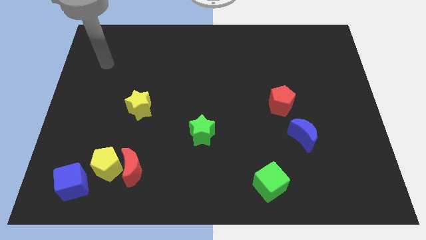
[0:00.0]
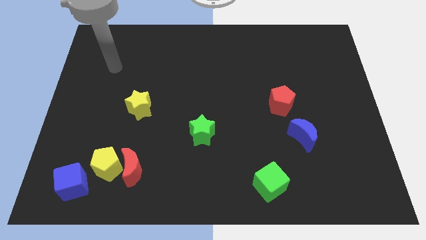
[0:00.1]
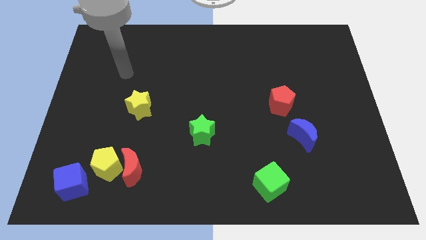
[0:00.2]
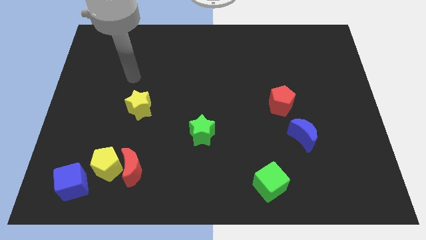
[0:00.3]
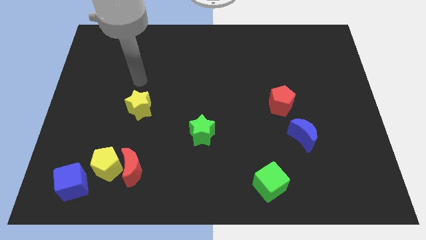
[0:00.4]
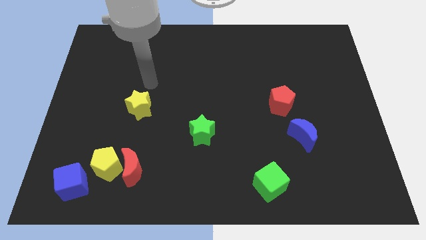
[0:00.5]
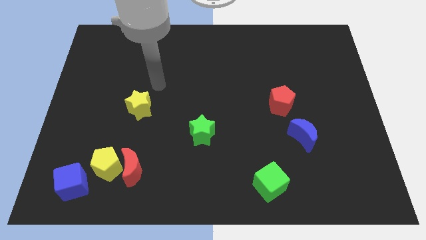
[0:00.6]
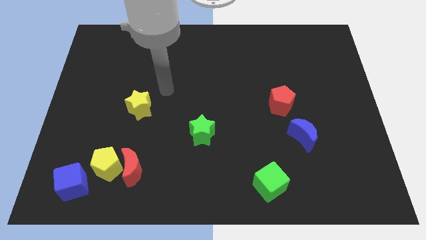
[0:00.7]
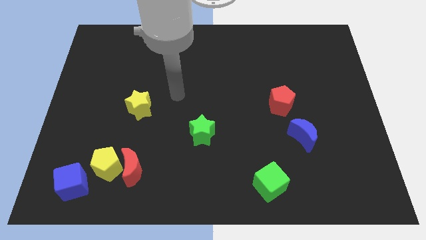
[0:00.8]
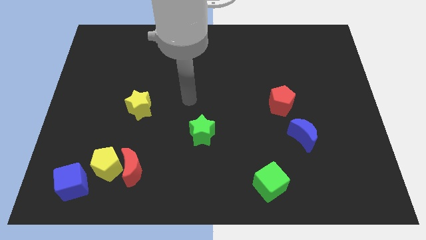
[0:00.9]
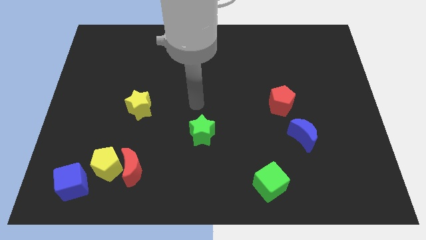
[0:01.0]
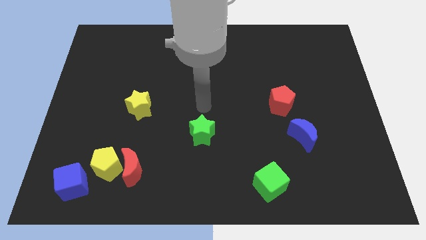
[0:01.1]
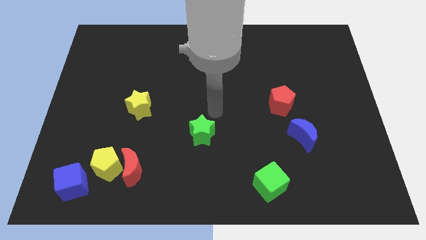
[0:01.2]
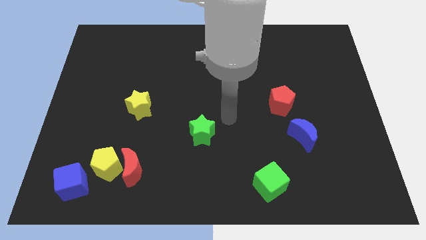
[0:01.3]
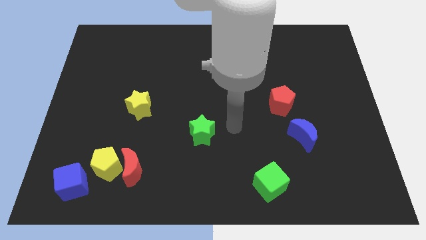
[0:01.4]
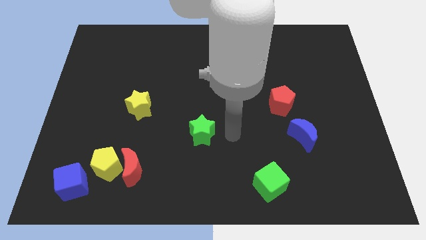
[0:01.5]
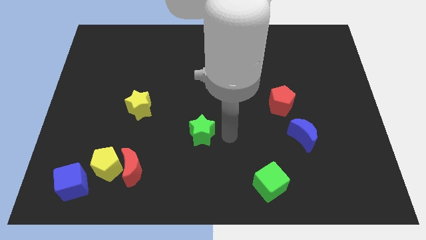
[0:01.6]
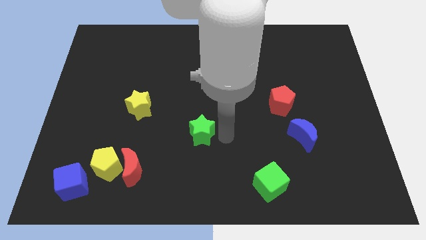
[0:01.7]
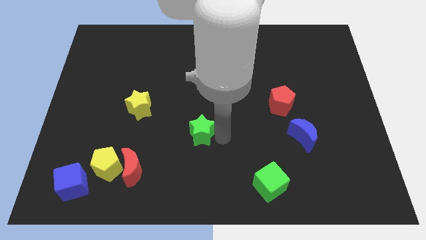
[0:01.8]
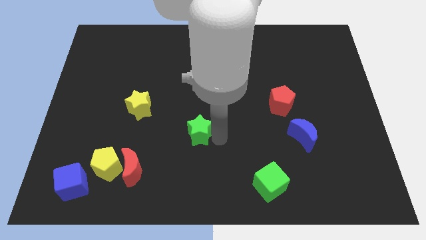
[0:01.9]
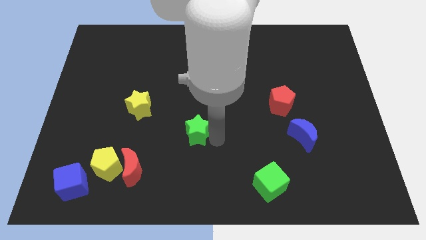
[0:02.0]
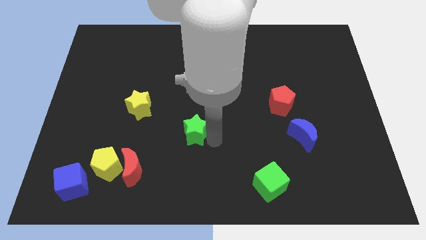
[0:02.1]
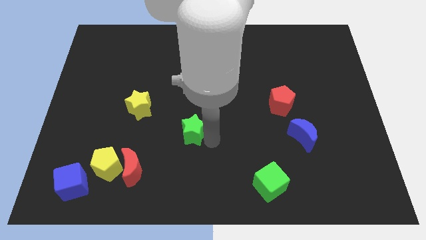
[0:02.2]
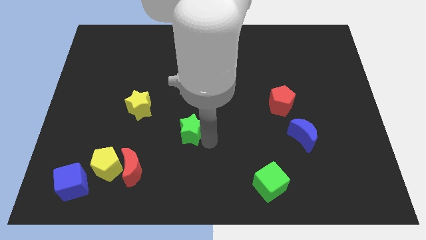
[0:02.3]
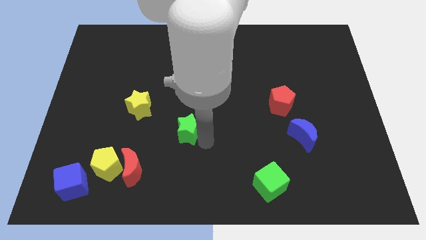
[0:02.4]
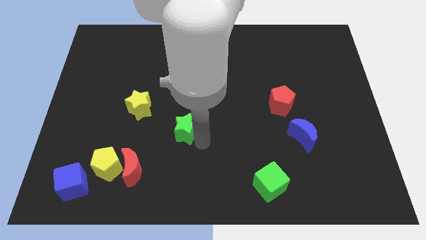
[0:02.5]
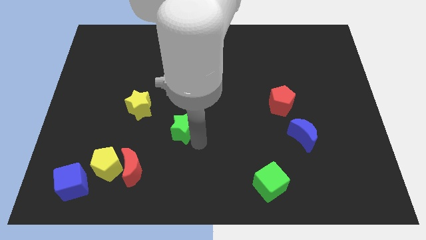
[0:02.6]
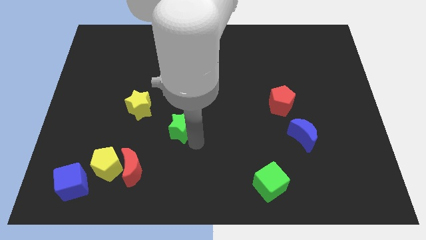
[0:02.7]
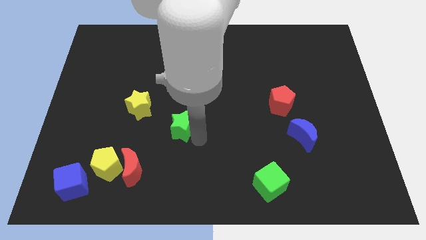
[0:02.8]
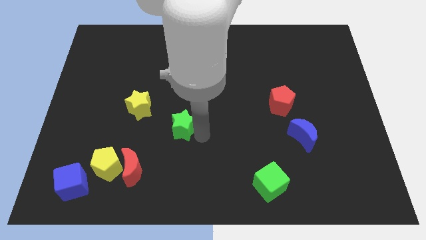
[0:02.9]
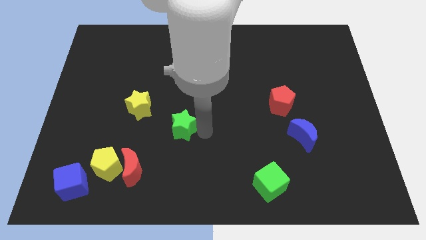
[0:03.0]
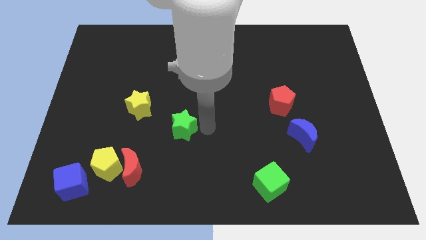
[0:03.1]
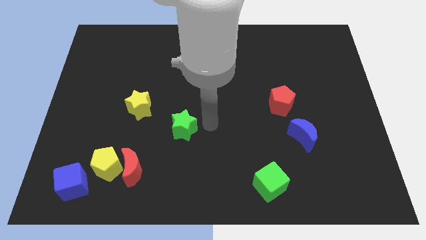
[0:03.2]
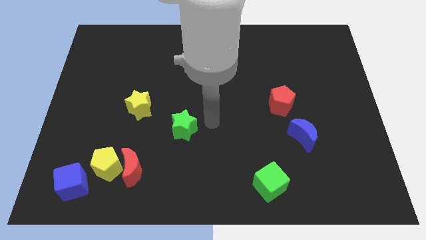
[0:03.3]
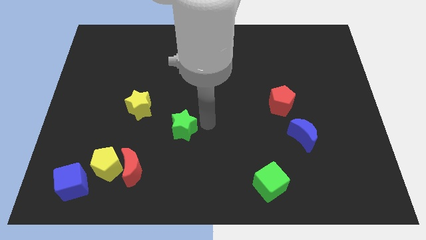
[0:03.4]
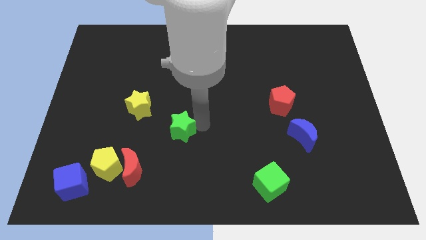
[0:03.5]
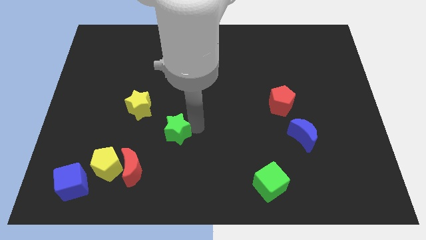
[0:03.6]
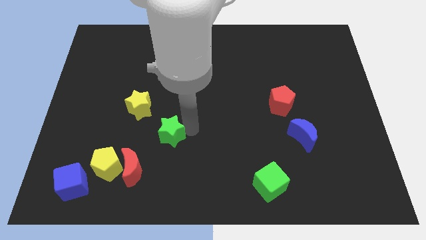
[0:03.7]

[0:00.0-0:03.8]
move the green star somewhat left

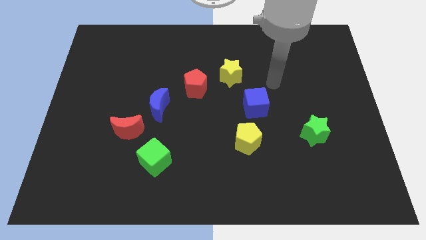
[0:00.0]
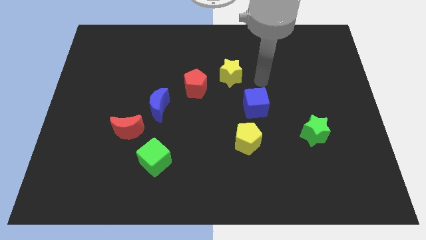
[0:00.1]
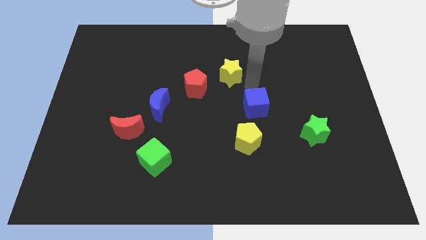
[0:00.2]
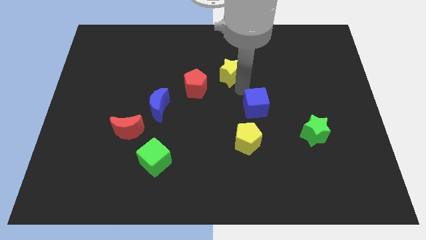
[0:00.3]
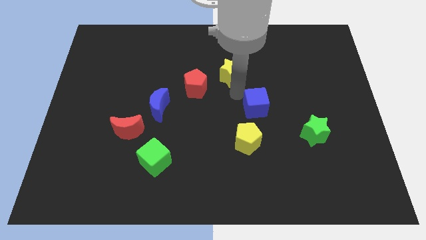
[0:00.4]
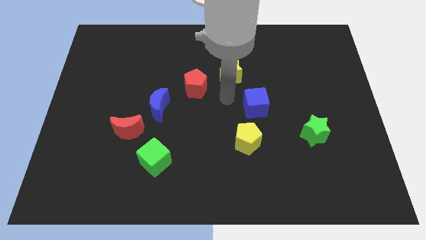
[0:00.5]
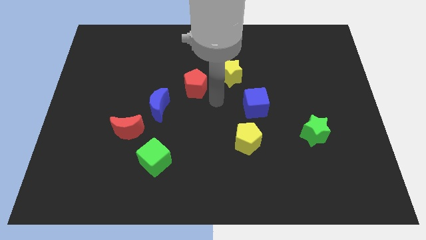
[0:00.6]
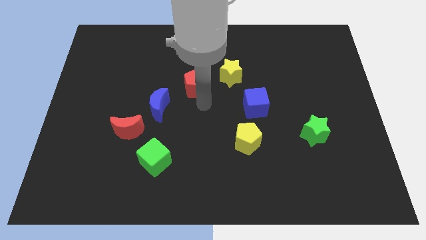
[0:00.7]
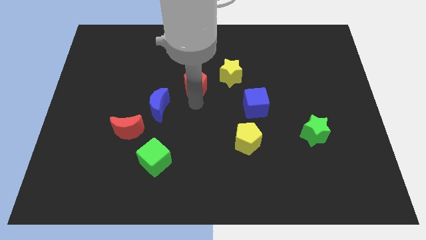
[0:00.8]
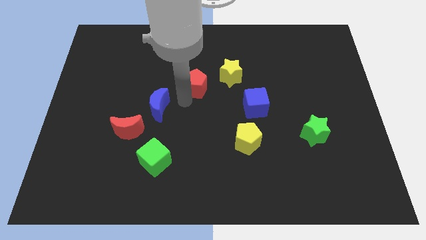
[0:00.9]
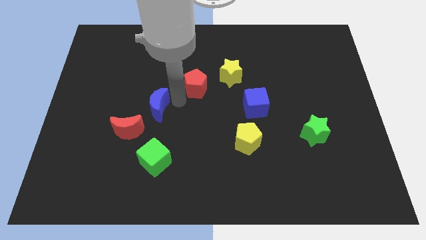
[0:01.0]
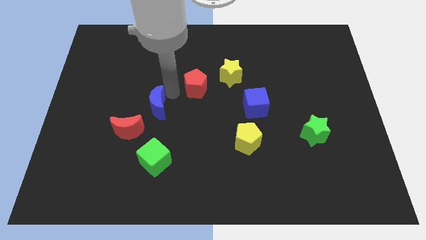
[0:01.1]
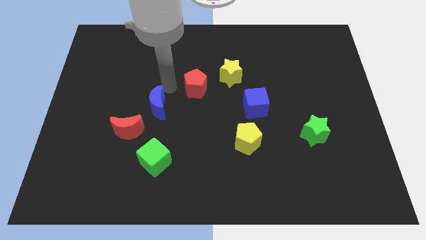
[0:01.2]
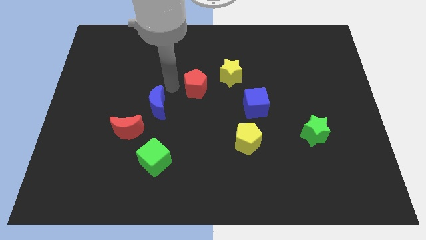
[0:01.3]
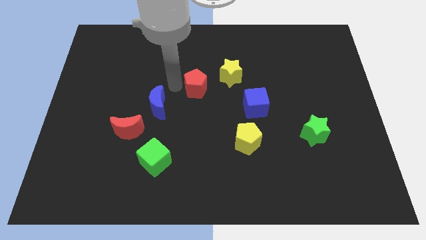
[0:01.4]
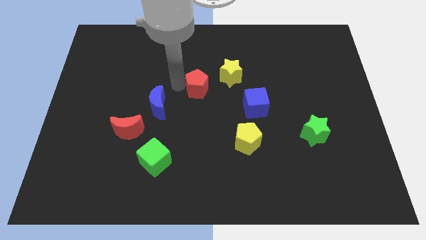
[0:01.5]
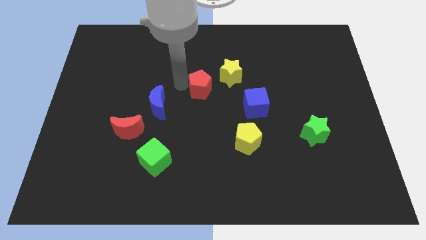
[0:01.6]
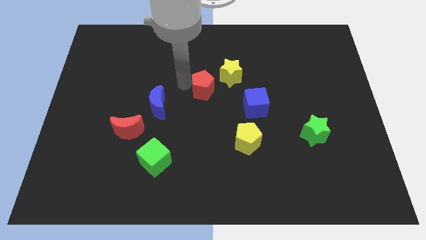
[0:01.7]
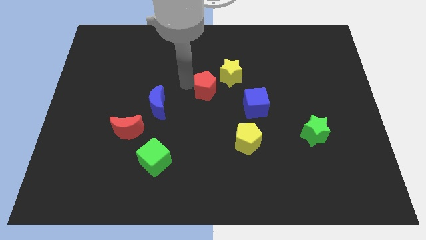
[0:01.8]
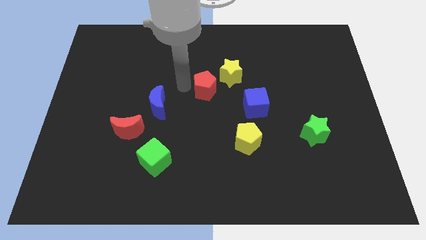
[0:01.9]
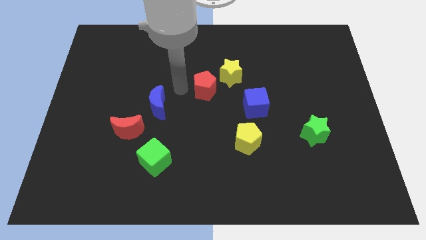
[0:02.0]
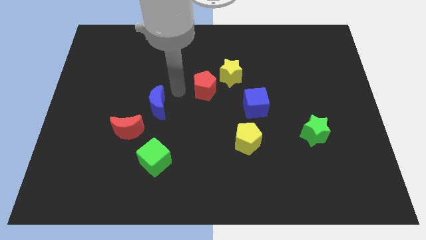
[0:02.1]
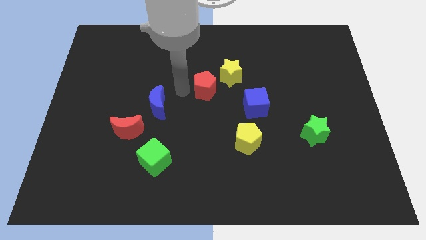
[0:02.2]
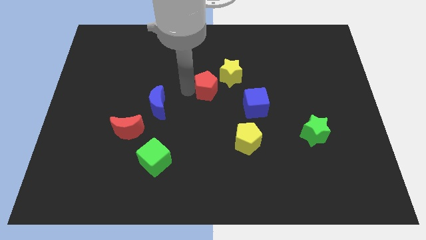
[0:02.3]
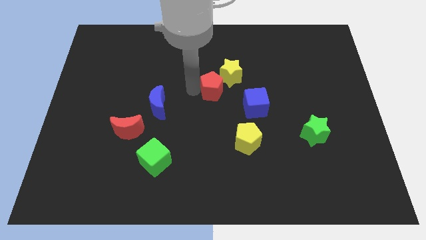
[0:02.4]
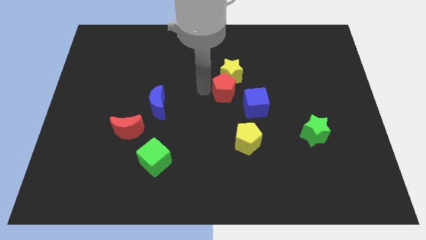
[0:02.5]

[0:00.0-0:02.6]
move the red pentagon a little bit right

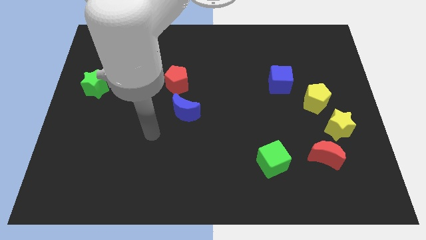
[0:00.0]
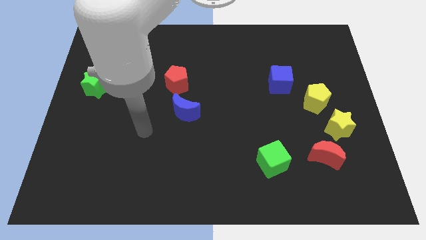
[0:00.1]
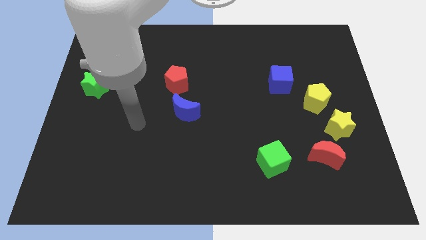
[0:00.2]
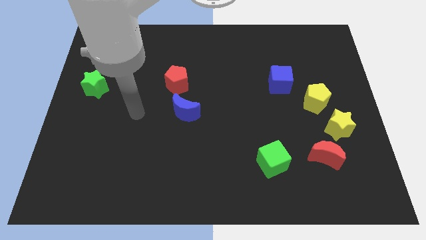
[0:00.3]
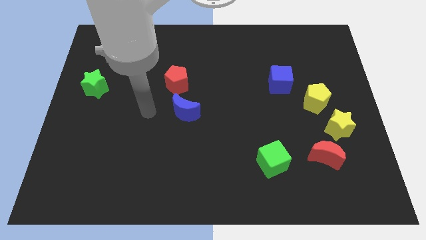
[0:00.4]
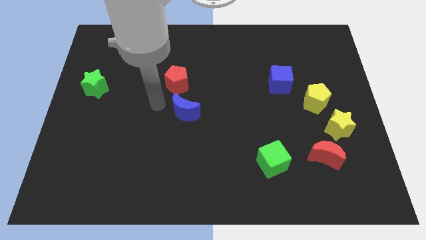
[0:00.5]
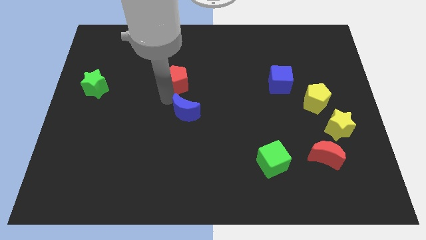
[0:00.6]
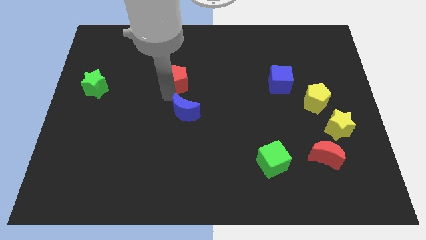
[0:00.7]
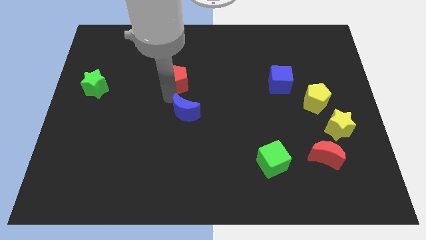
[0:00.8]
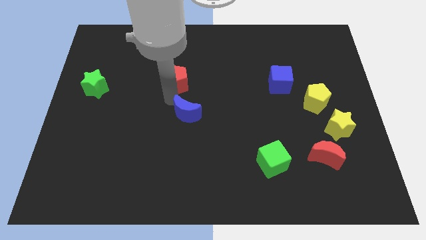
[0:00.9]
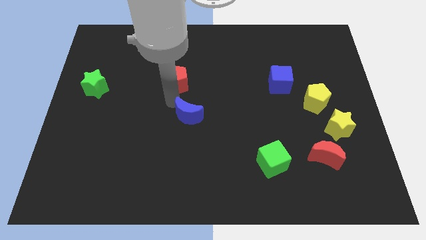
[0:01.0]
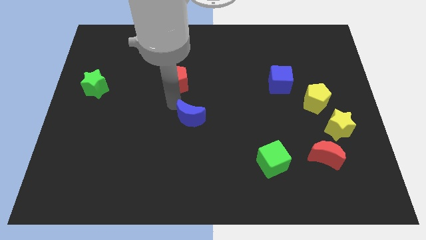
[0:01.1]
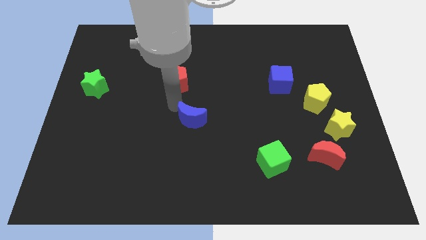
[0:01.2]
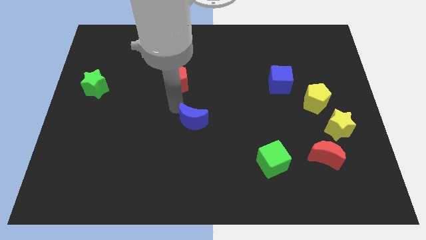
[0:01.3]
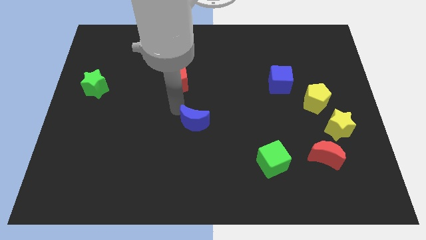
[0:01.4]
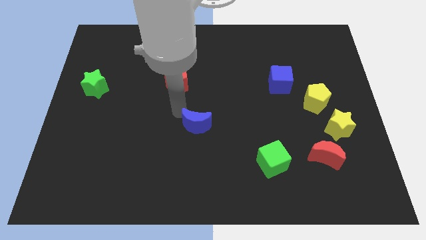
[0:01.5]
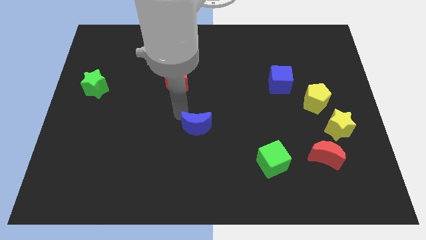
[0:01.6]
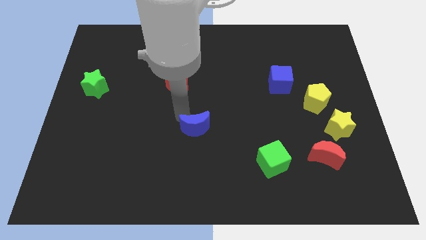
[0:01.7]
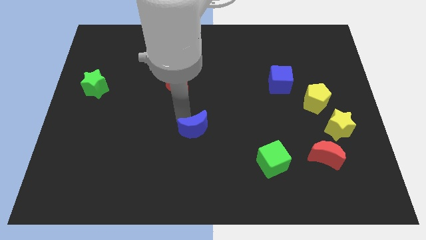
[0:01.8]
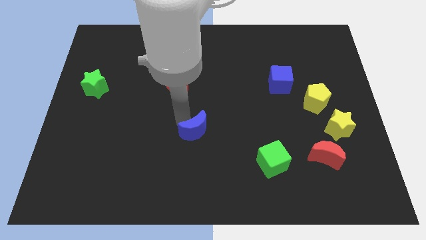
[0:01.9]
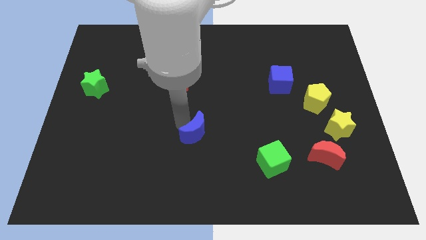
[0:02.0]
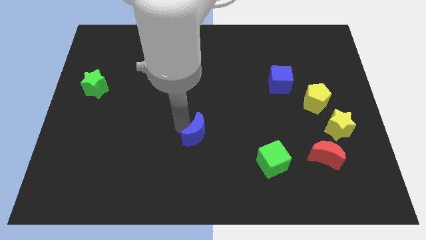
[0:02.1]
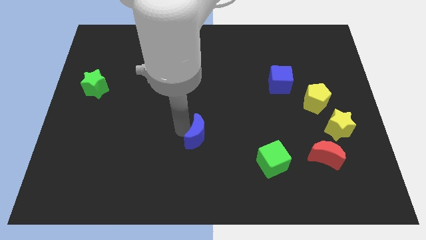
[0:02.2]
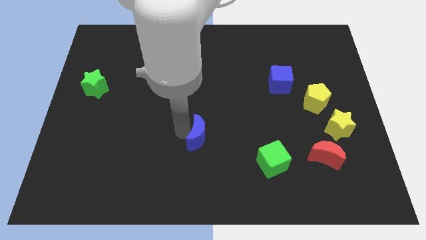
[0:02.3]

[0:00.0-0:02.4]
move the blue moon down and then right a little
